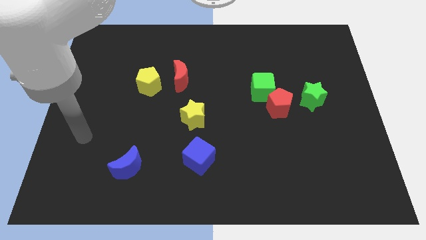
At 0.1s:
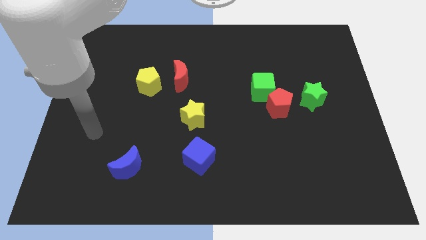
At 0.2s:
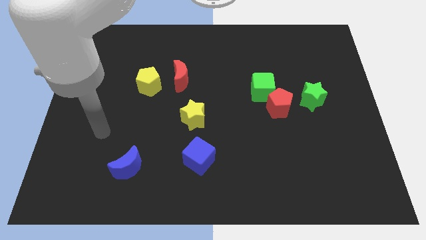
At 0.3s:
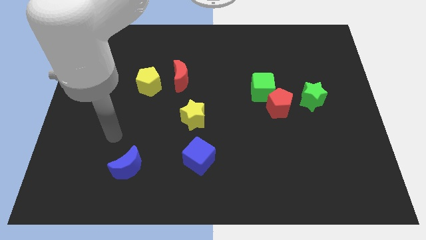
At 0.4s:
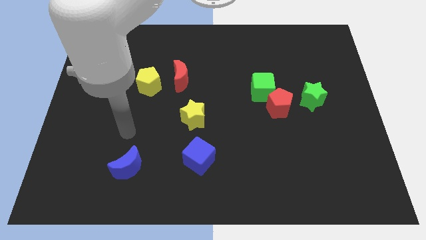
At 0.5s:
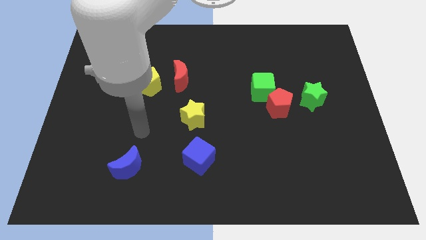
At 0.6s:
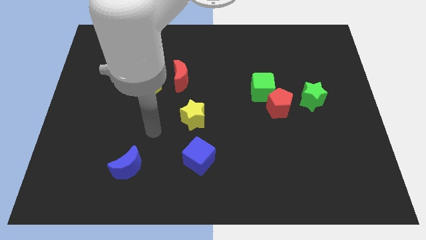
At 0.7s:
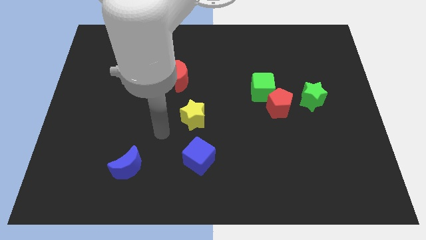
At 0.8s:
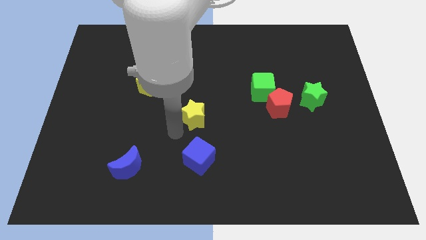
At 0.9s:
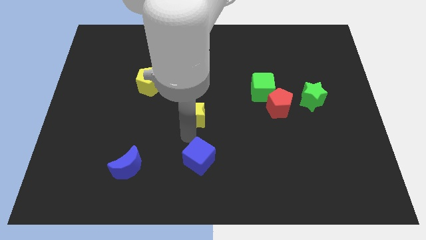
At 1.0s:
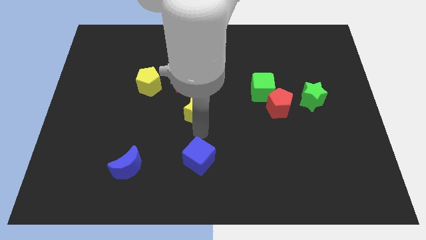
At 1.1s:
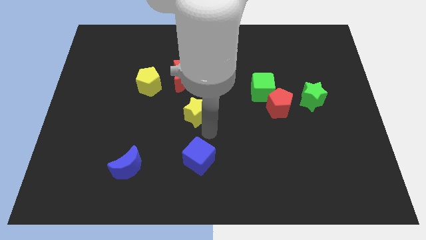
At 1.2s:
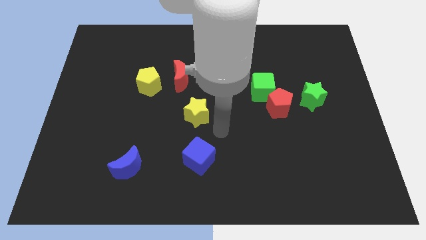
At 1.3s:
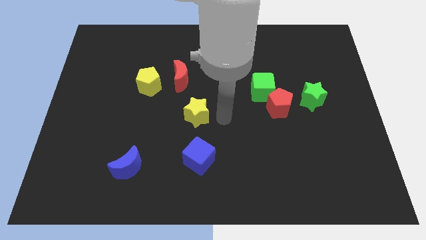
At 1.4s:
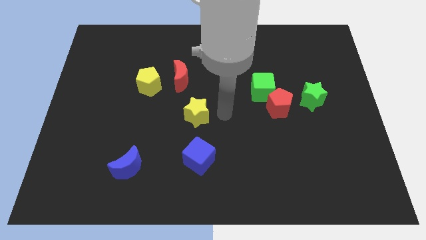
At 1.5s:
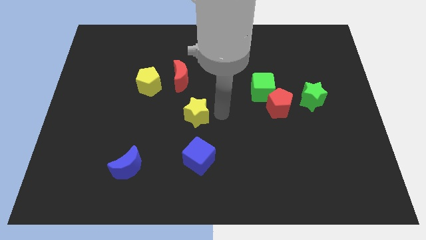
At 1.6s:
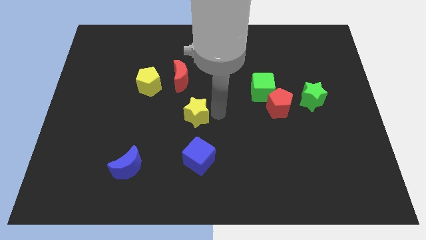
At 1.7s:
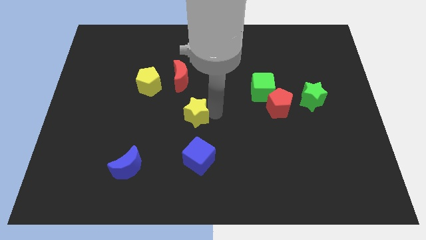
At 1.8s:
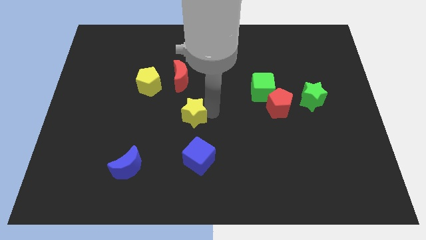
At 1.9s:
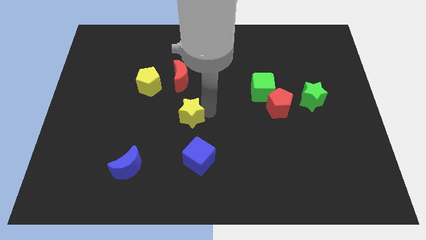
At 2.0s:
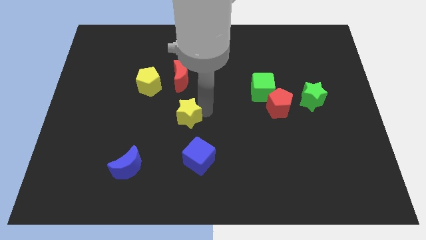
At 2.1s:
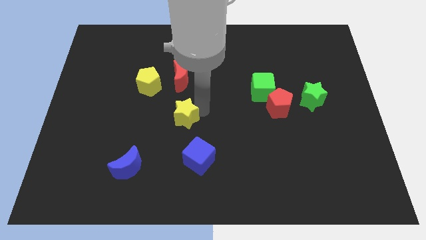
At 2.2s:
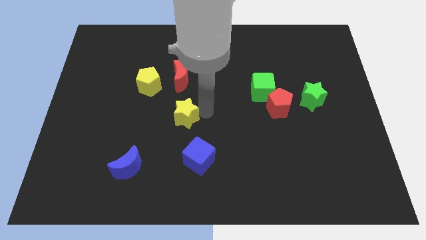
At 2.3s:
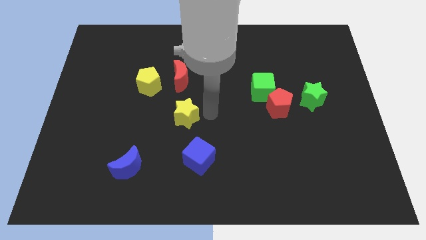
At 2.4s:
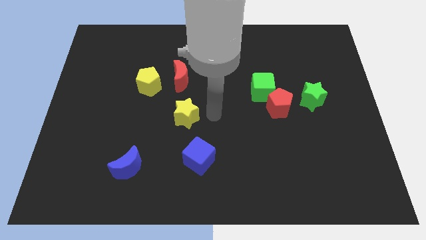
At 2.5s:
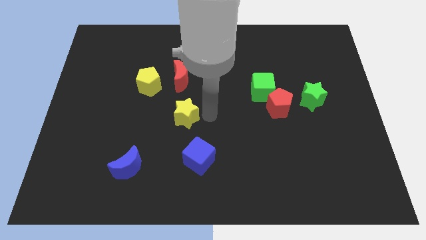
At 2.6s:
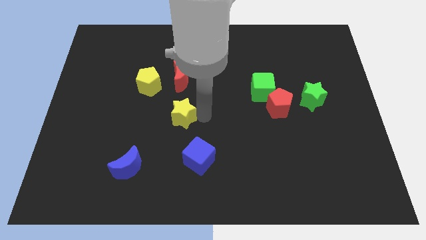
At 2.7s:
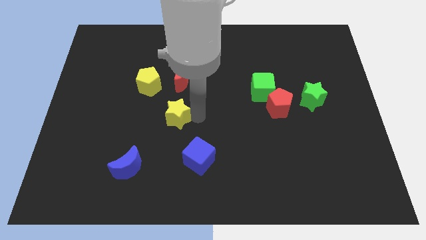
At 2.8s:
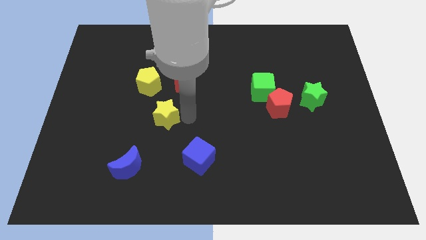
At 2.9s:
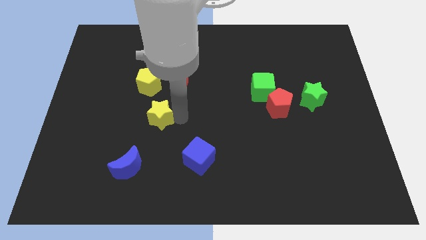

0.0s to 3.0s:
push the yellow star a little bit left

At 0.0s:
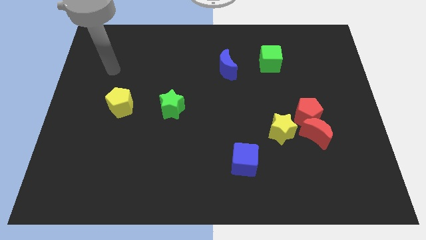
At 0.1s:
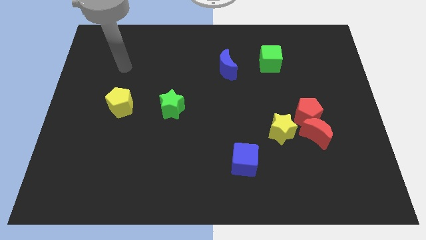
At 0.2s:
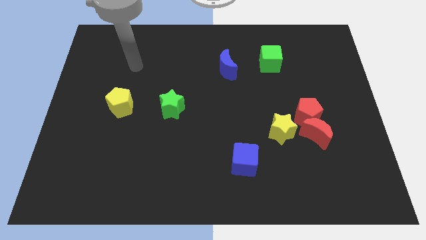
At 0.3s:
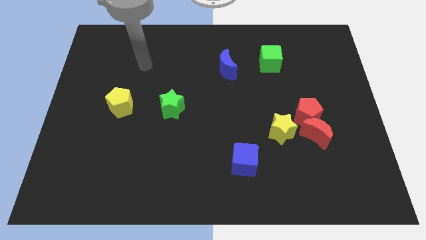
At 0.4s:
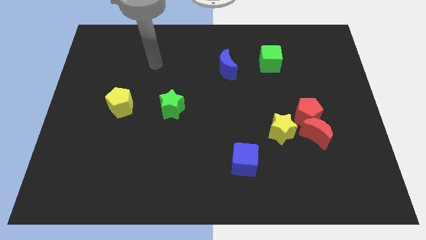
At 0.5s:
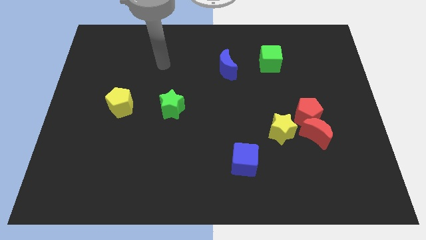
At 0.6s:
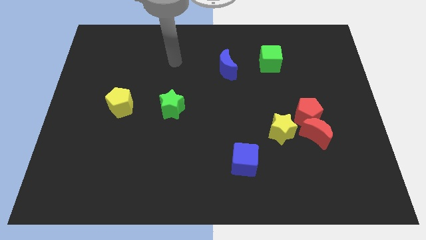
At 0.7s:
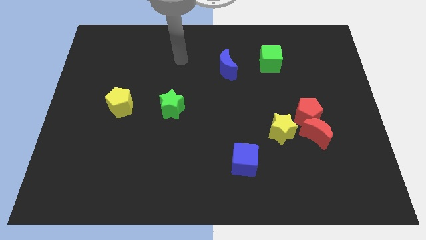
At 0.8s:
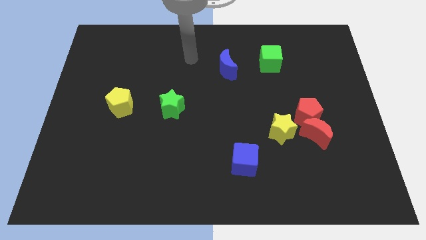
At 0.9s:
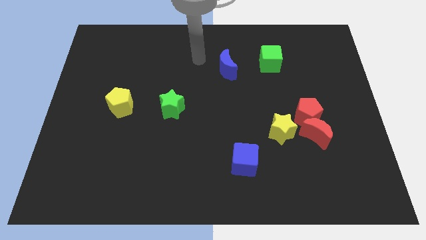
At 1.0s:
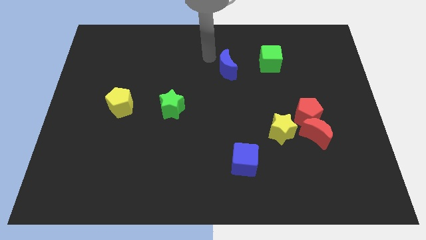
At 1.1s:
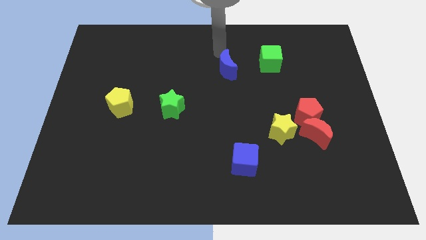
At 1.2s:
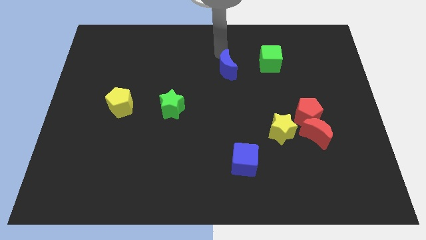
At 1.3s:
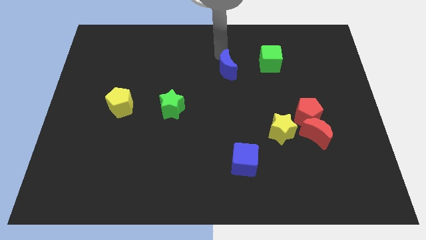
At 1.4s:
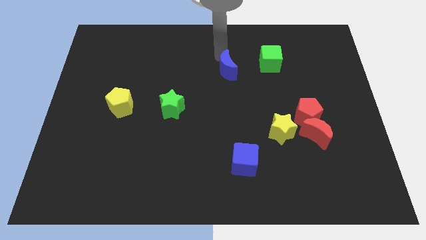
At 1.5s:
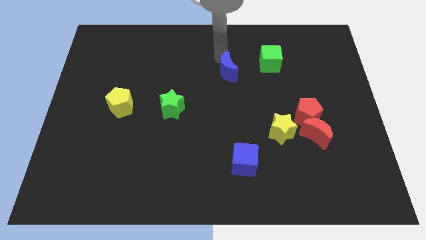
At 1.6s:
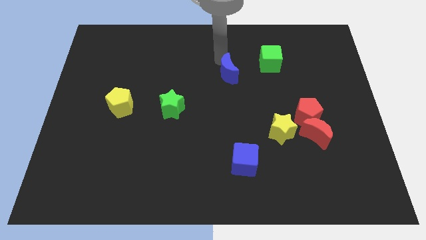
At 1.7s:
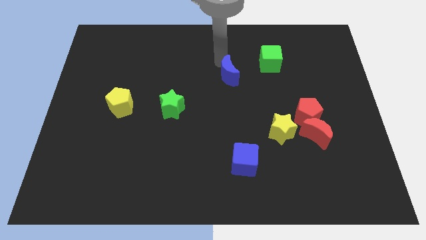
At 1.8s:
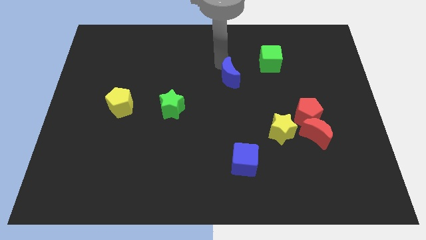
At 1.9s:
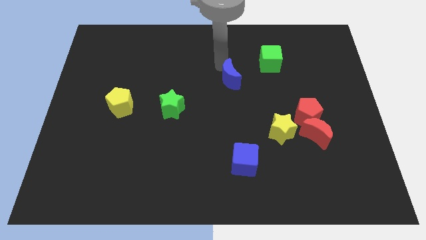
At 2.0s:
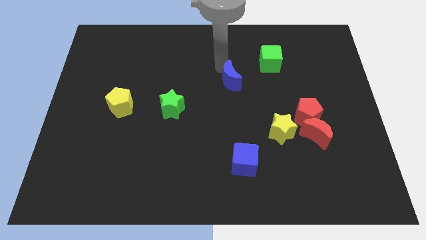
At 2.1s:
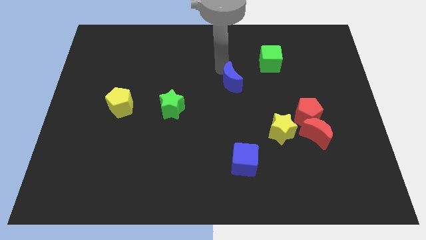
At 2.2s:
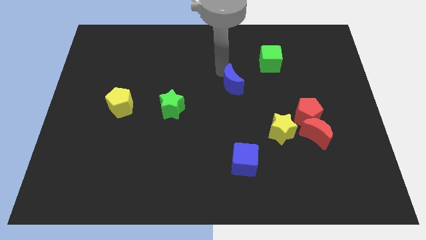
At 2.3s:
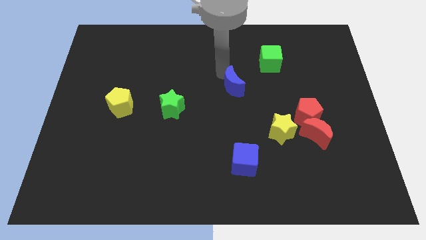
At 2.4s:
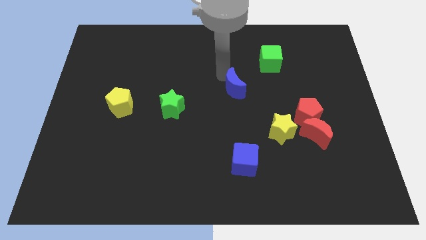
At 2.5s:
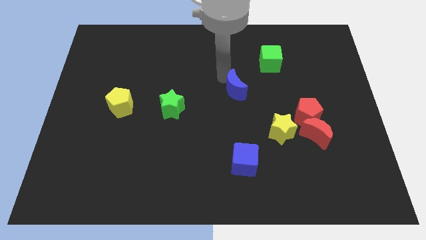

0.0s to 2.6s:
slide the blue moon a little bit downwards

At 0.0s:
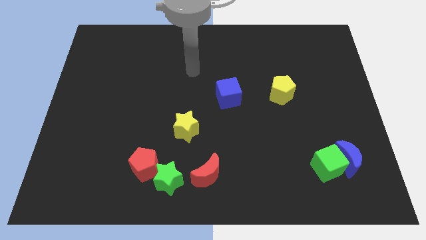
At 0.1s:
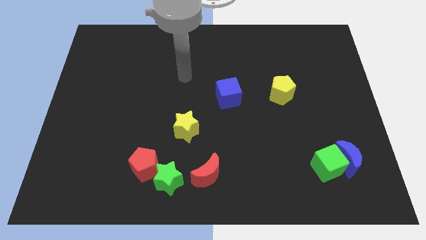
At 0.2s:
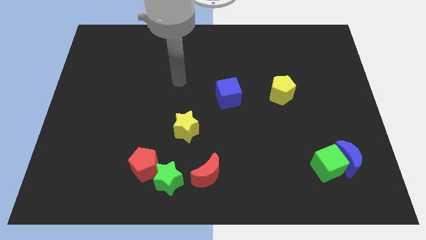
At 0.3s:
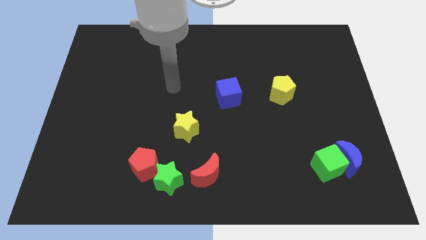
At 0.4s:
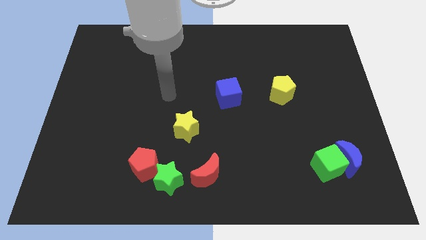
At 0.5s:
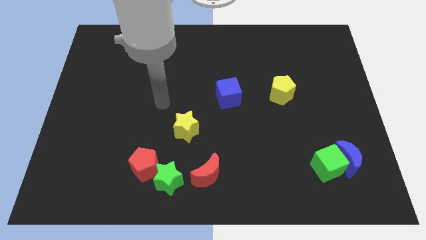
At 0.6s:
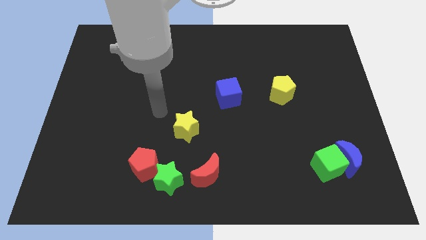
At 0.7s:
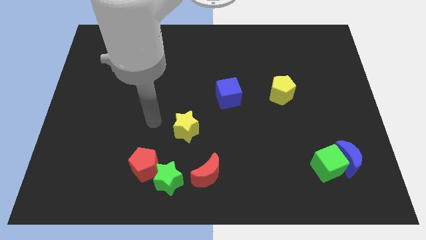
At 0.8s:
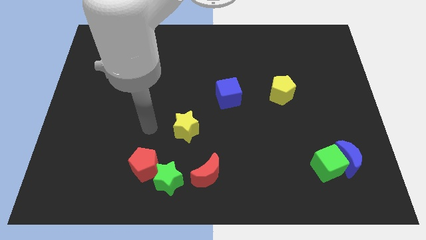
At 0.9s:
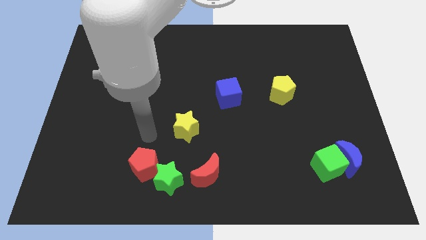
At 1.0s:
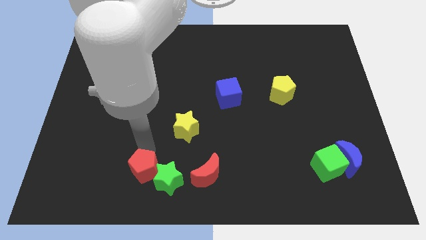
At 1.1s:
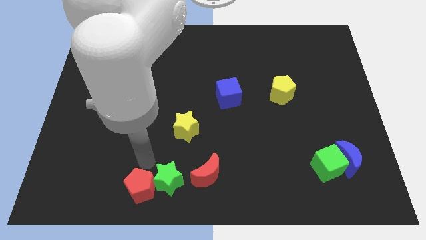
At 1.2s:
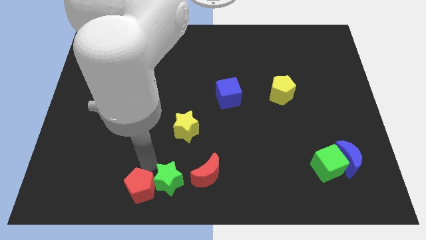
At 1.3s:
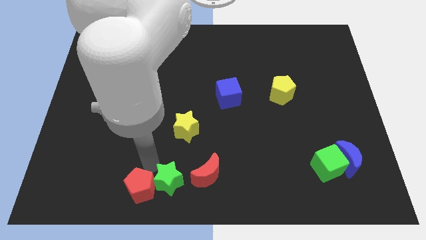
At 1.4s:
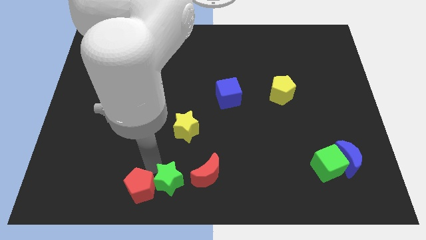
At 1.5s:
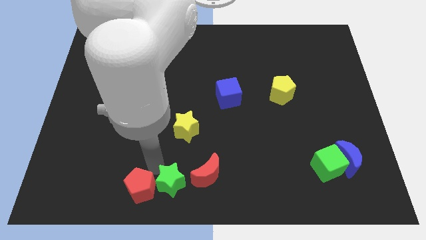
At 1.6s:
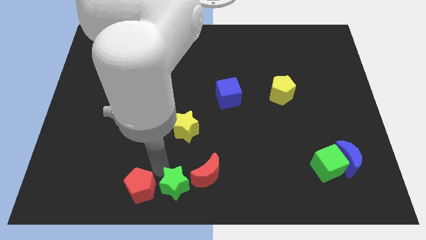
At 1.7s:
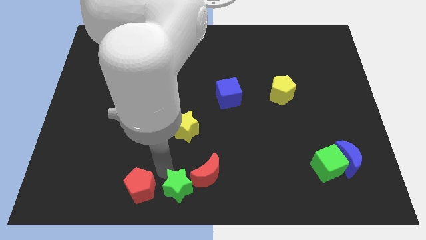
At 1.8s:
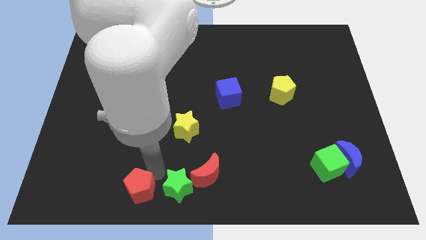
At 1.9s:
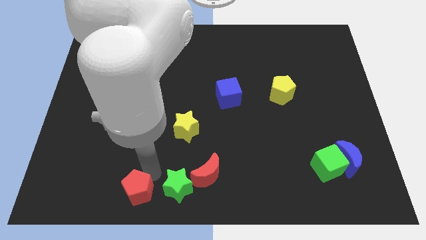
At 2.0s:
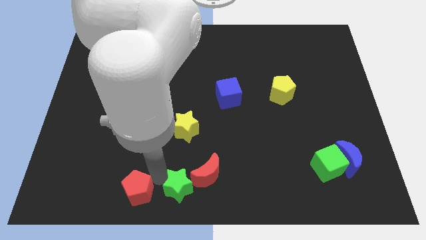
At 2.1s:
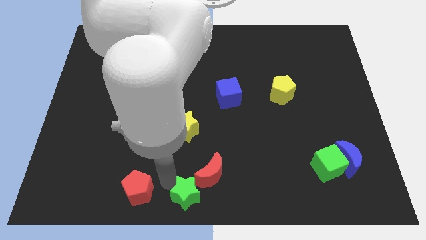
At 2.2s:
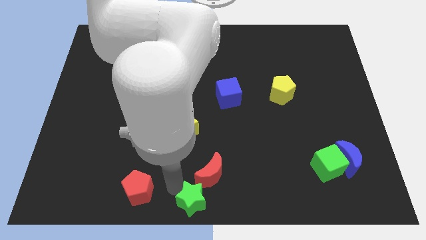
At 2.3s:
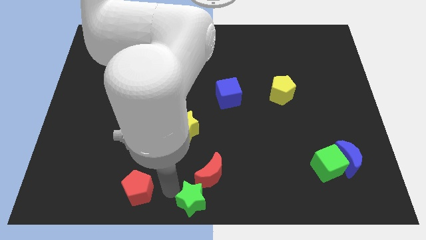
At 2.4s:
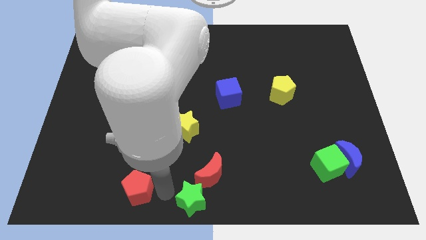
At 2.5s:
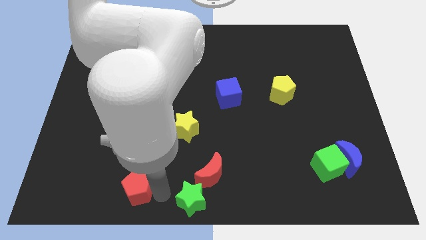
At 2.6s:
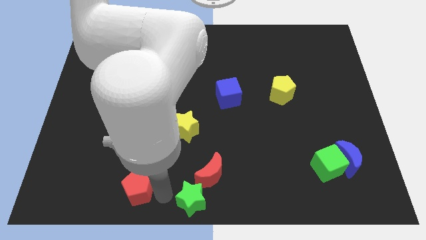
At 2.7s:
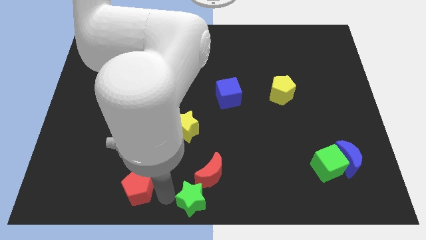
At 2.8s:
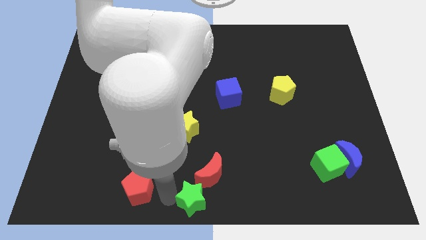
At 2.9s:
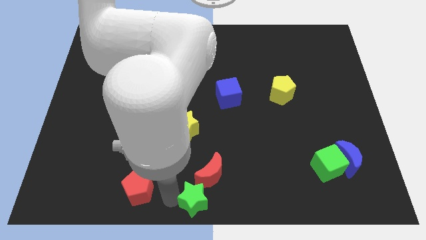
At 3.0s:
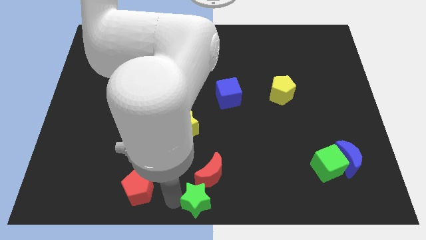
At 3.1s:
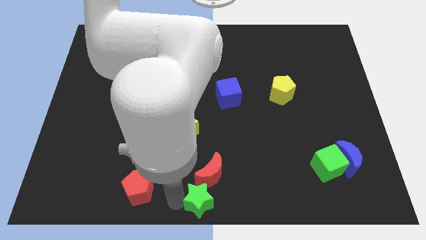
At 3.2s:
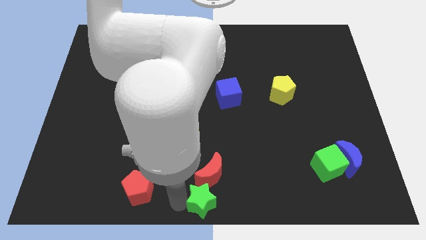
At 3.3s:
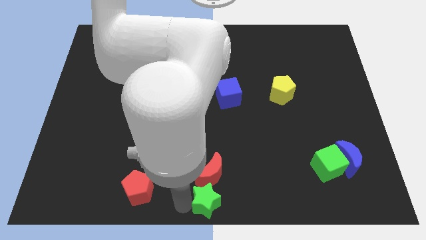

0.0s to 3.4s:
push the green star to the right slightly
